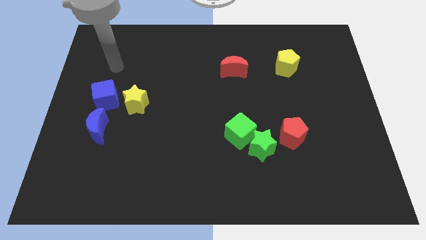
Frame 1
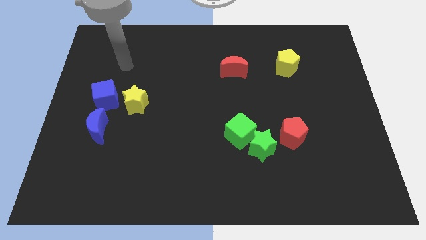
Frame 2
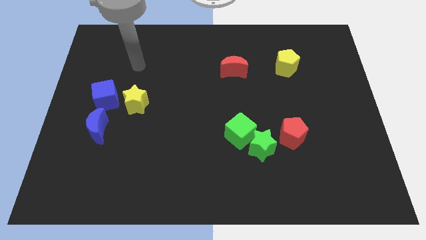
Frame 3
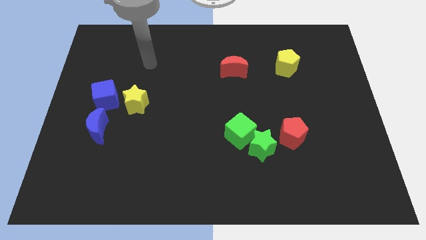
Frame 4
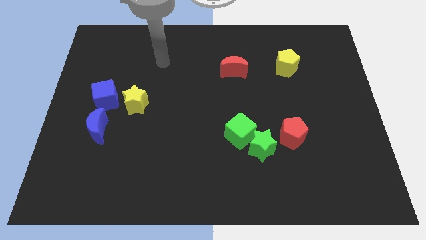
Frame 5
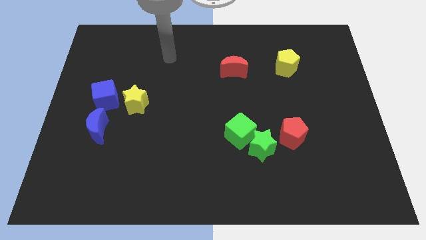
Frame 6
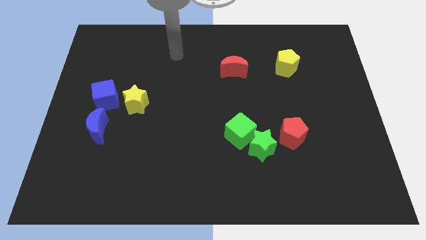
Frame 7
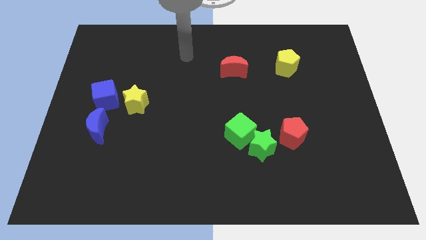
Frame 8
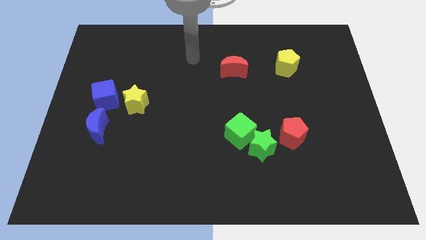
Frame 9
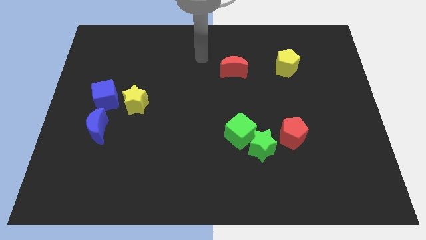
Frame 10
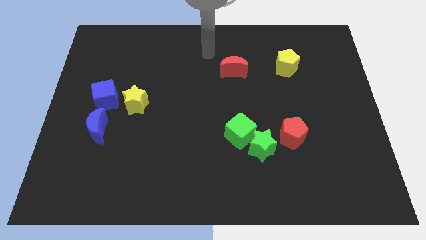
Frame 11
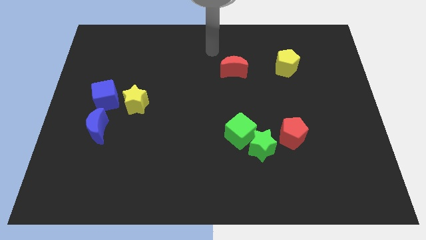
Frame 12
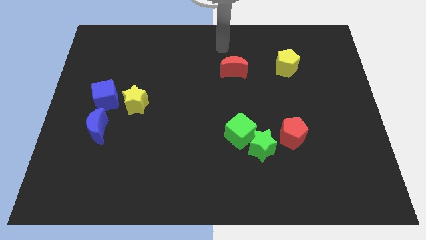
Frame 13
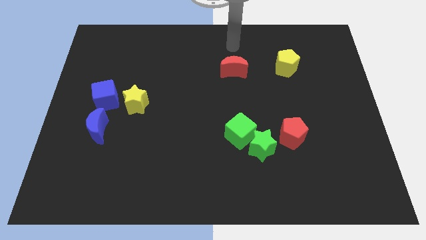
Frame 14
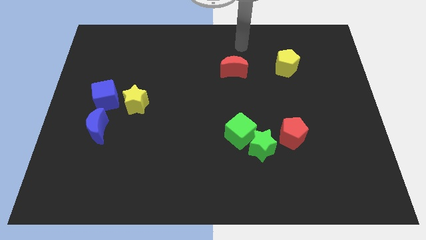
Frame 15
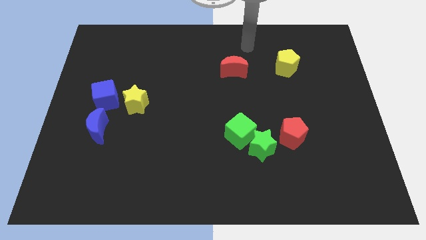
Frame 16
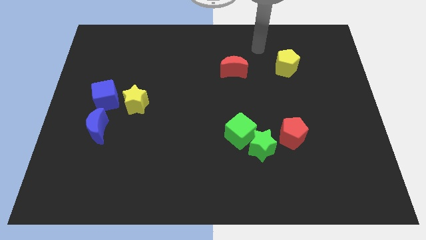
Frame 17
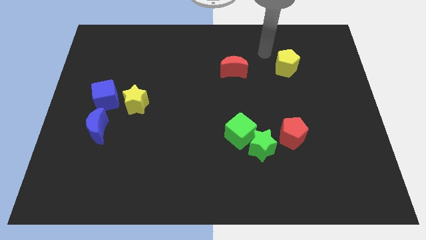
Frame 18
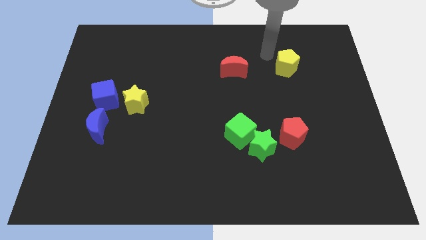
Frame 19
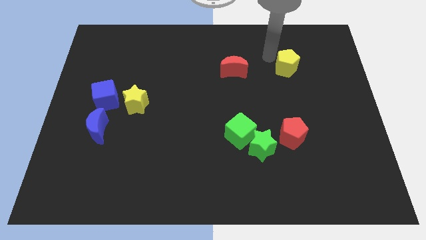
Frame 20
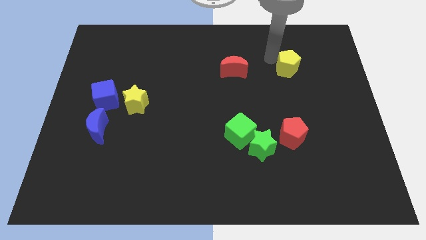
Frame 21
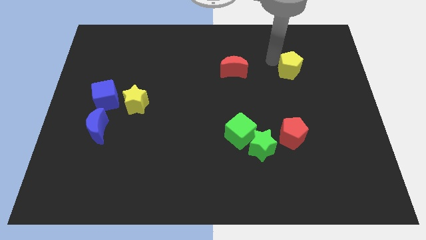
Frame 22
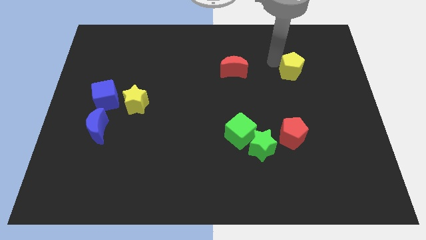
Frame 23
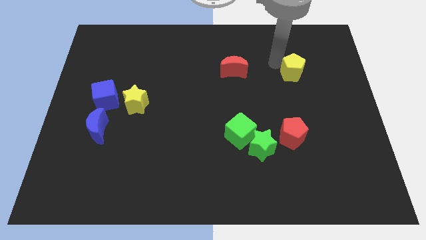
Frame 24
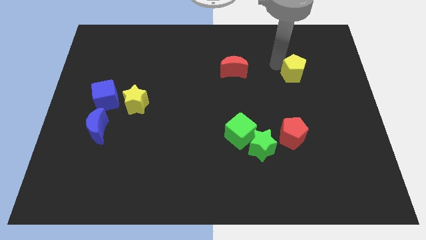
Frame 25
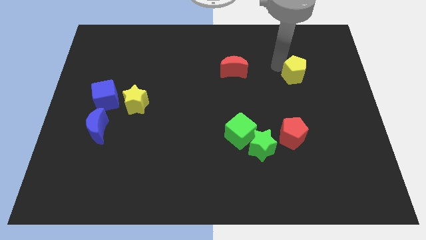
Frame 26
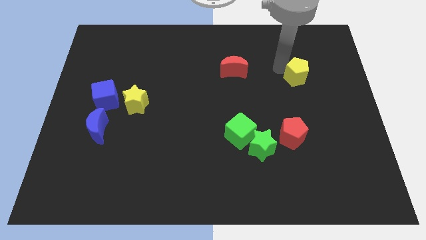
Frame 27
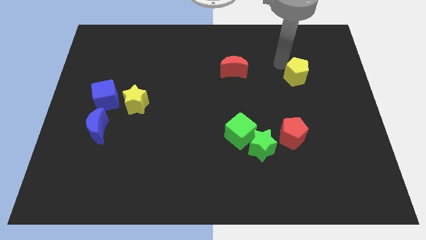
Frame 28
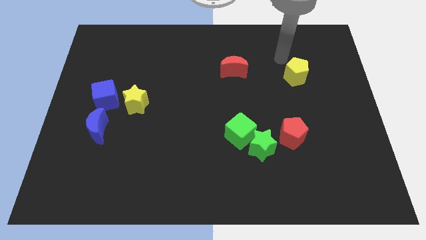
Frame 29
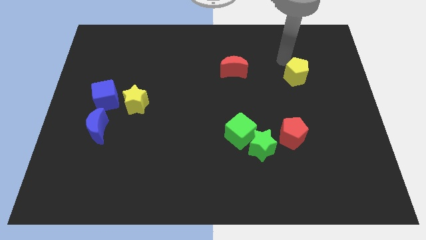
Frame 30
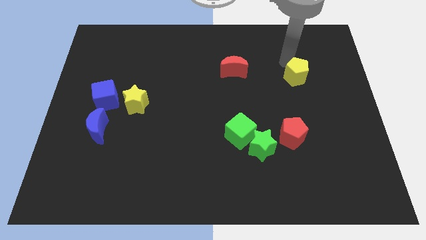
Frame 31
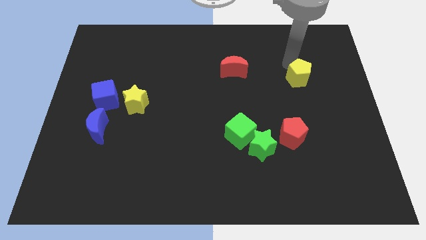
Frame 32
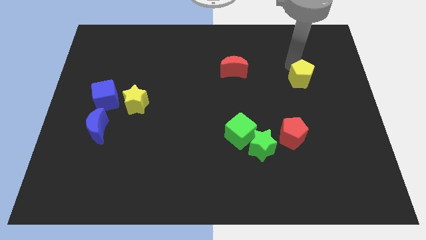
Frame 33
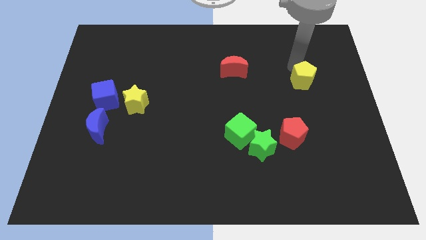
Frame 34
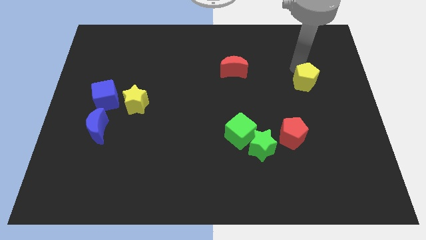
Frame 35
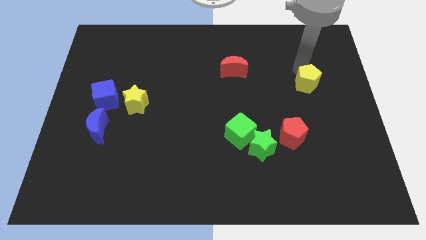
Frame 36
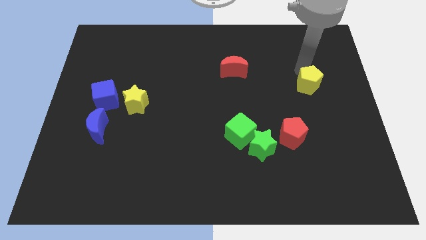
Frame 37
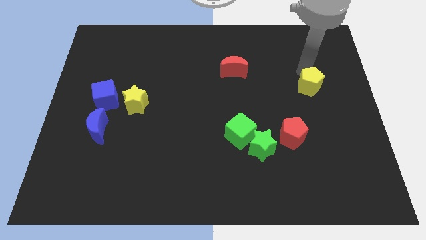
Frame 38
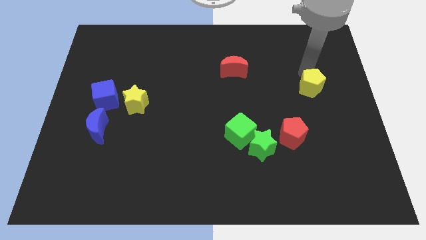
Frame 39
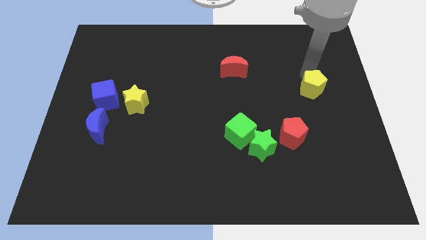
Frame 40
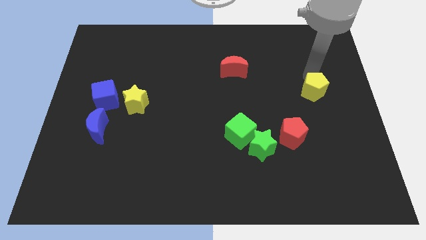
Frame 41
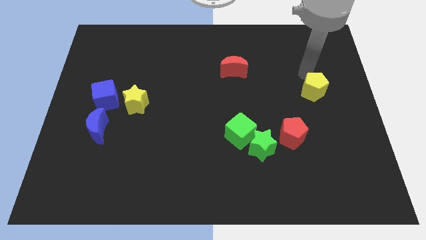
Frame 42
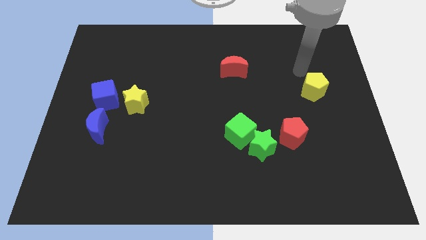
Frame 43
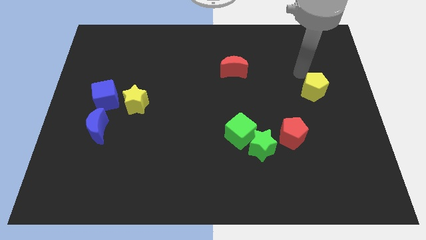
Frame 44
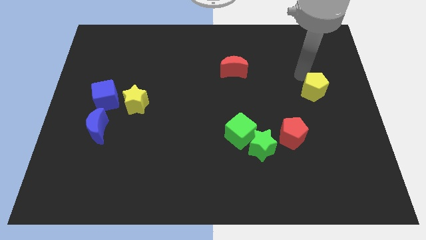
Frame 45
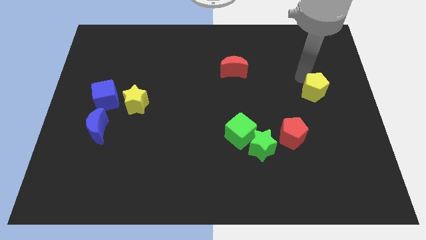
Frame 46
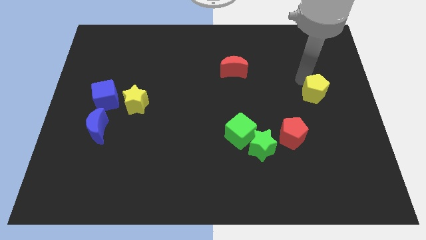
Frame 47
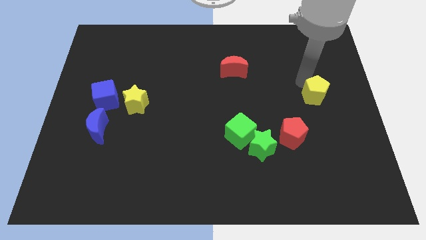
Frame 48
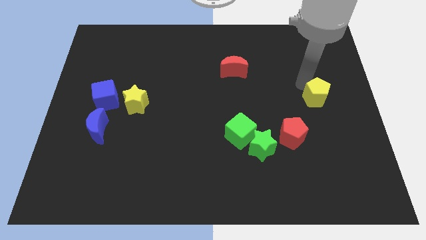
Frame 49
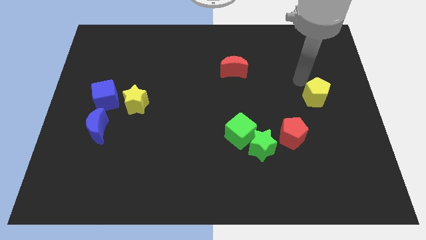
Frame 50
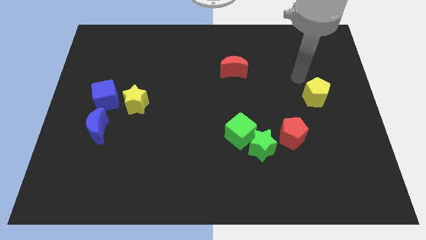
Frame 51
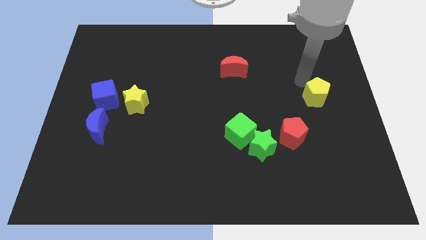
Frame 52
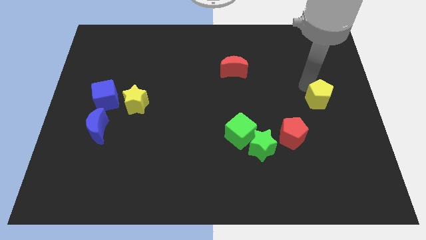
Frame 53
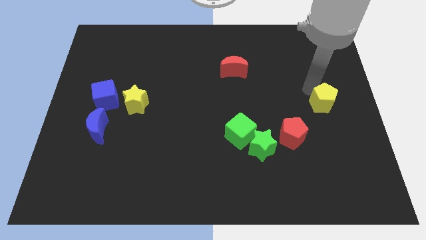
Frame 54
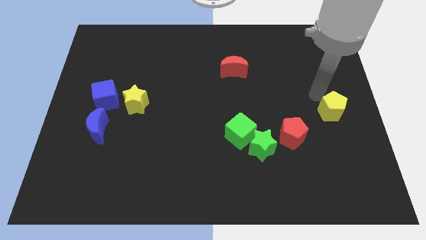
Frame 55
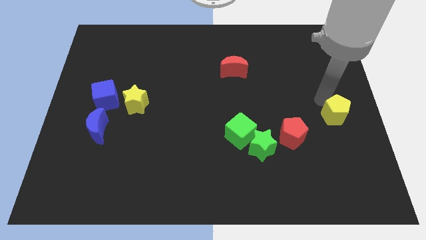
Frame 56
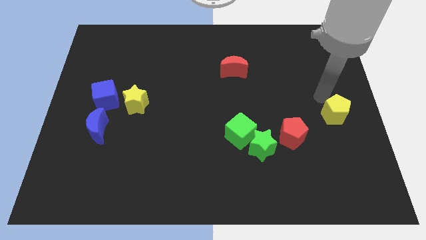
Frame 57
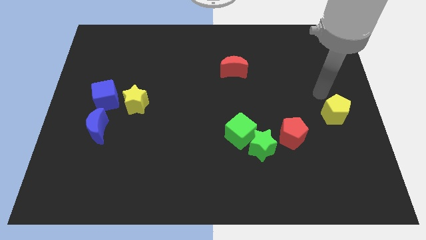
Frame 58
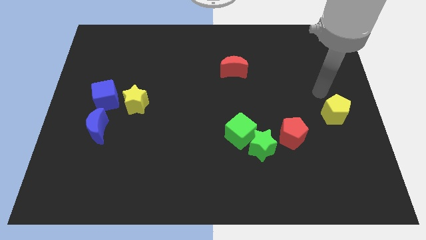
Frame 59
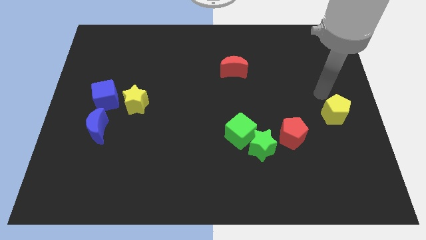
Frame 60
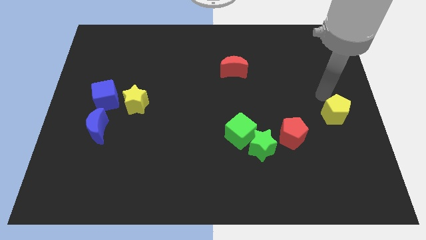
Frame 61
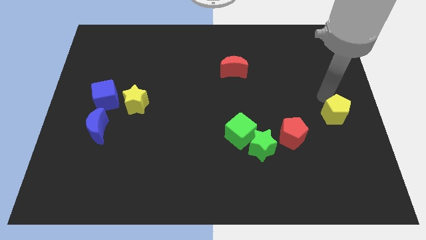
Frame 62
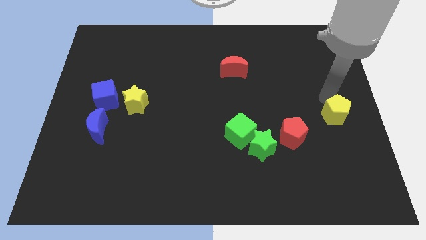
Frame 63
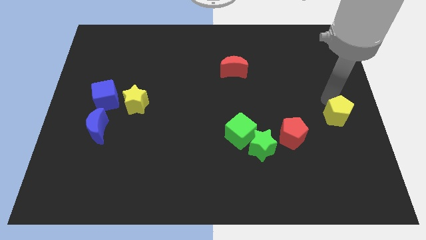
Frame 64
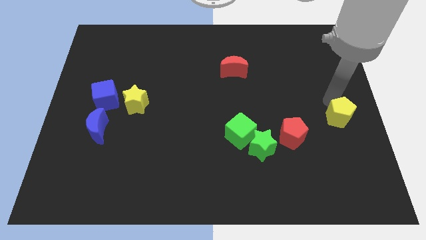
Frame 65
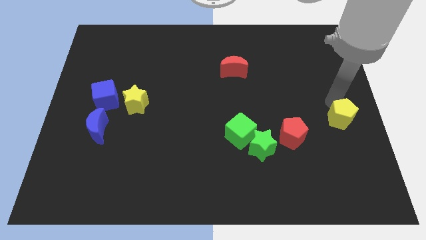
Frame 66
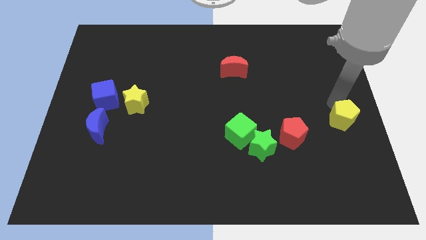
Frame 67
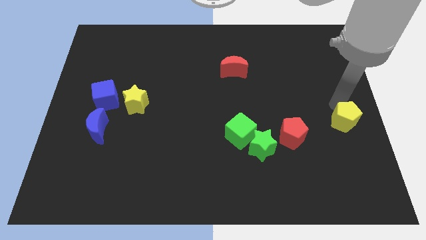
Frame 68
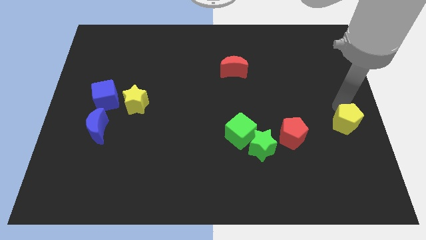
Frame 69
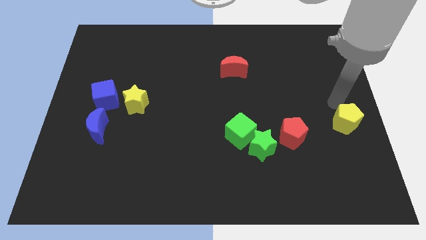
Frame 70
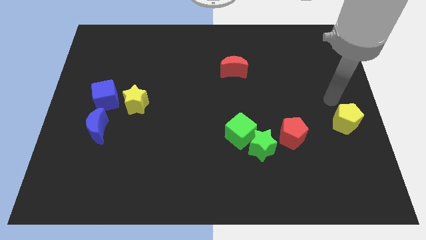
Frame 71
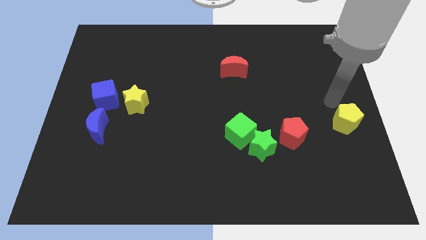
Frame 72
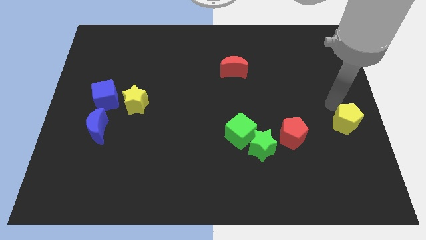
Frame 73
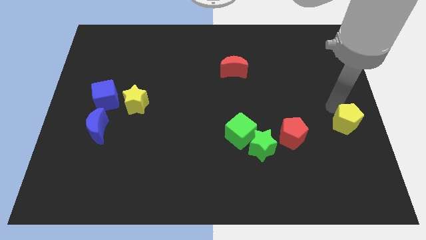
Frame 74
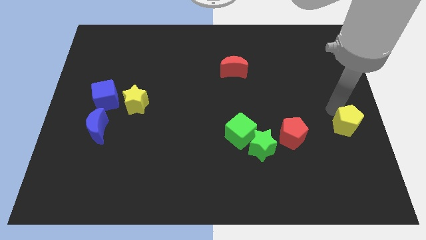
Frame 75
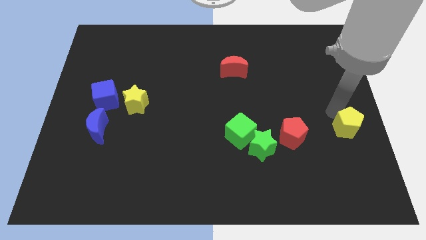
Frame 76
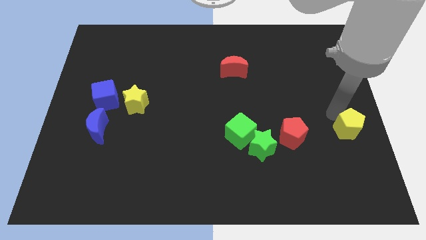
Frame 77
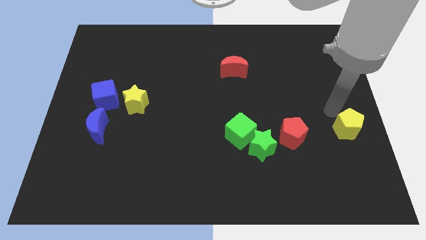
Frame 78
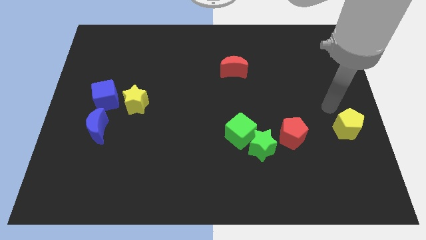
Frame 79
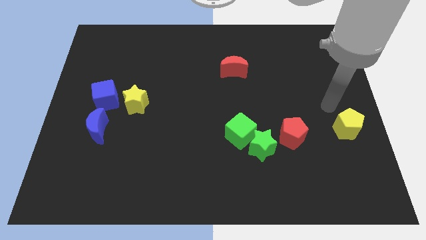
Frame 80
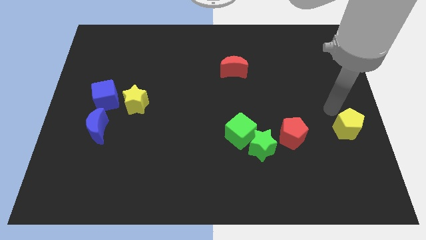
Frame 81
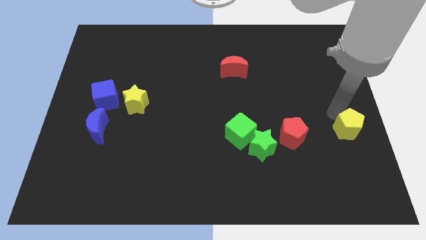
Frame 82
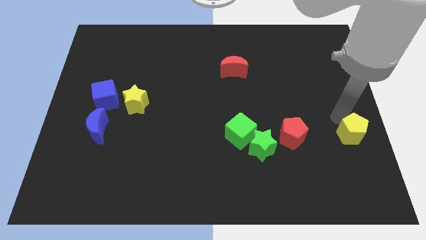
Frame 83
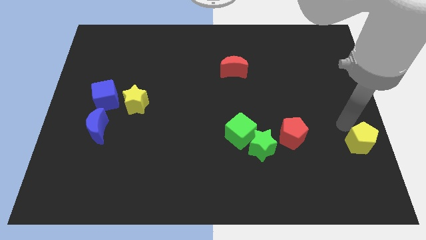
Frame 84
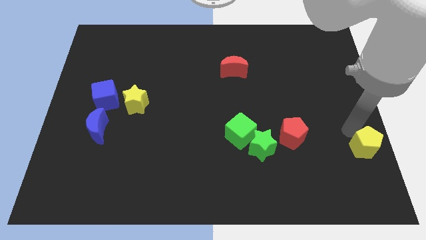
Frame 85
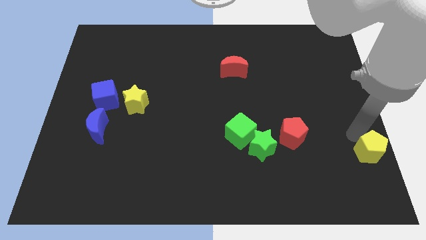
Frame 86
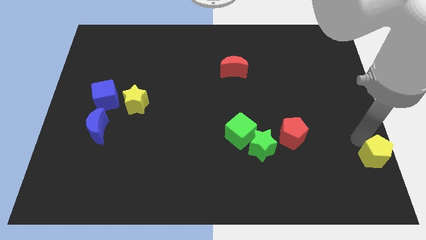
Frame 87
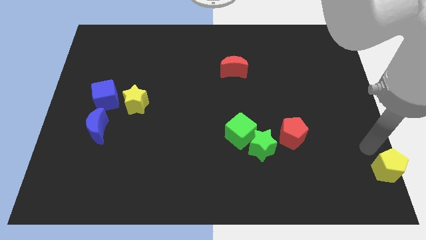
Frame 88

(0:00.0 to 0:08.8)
put the yellow pentagon to the lower right corner

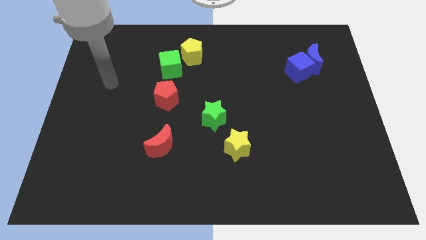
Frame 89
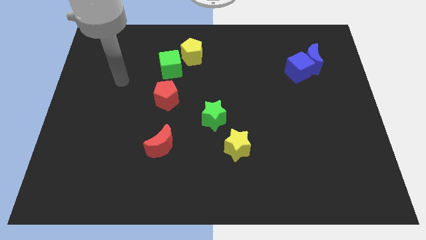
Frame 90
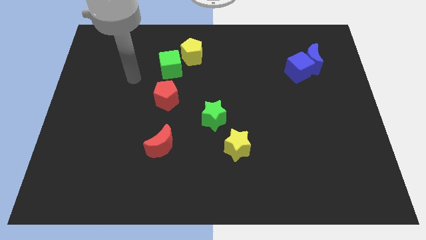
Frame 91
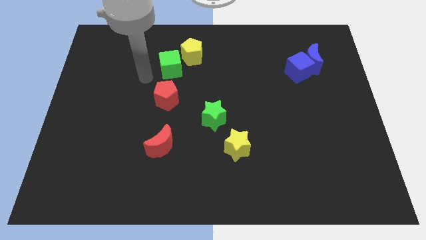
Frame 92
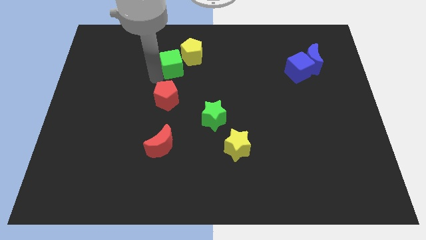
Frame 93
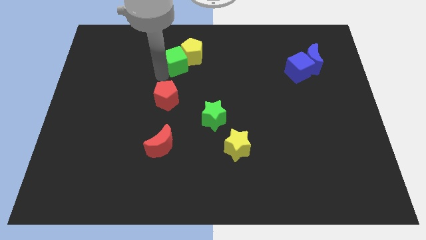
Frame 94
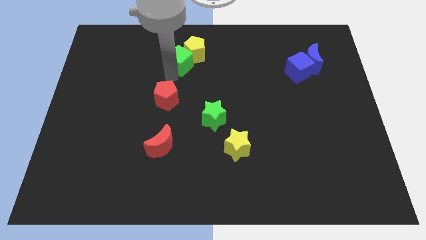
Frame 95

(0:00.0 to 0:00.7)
put the yellow pentagon to the towards your base
